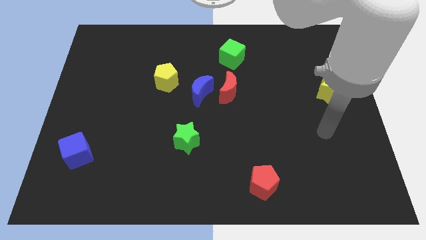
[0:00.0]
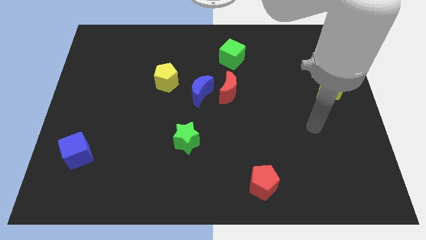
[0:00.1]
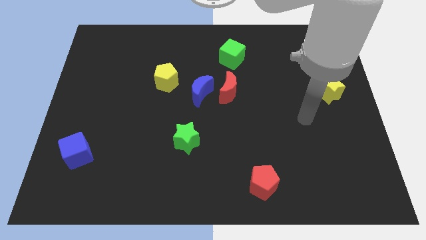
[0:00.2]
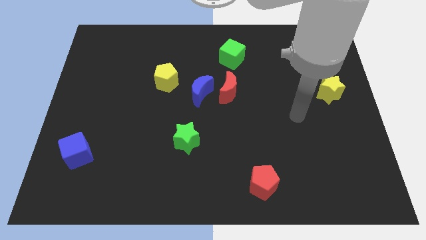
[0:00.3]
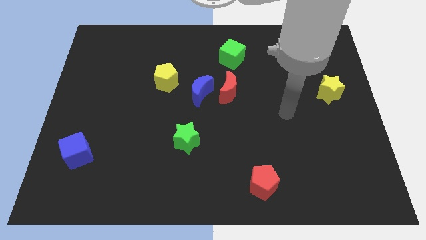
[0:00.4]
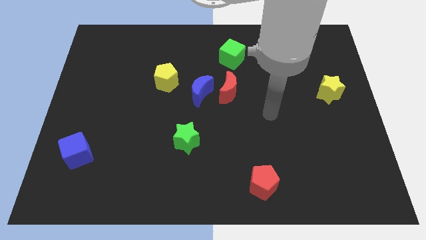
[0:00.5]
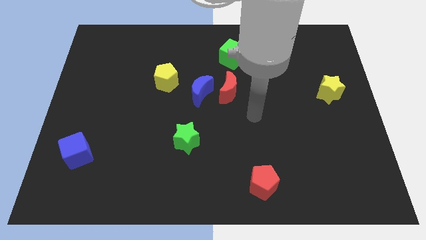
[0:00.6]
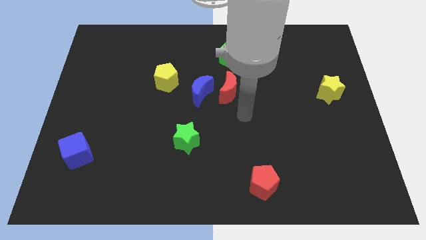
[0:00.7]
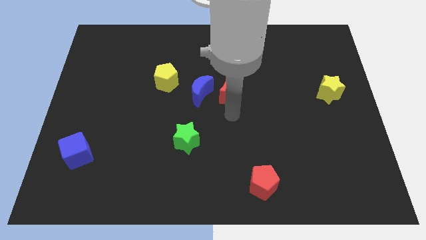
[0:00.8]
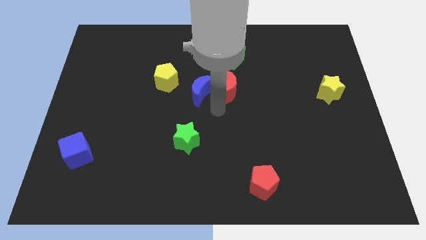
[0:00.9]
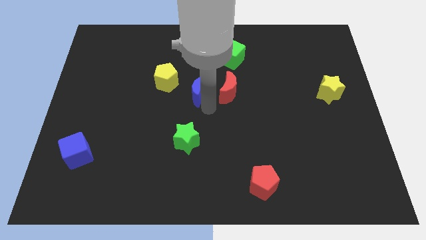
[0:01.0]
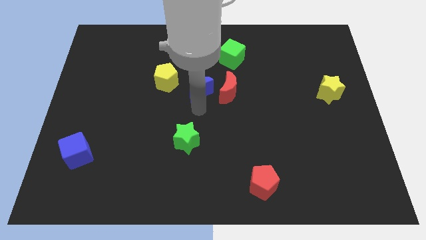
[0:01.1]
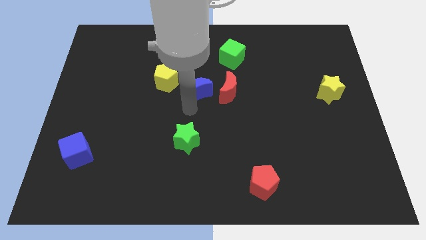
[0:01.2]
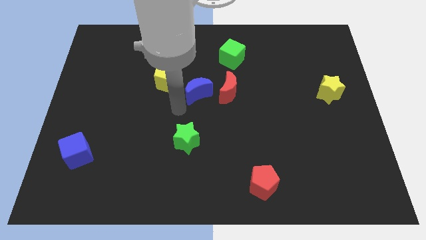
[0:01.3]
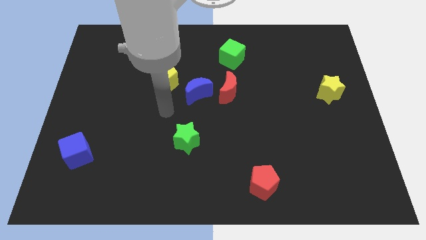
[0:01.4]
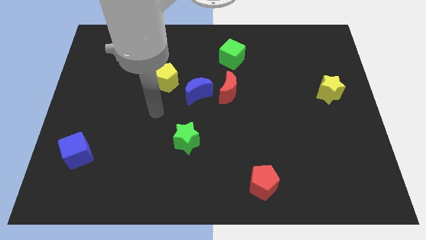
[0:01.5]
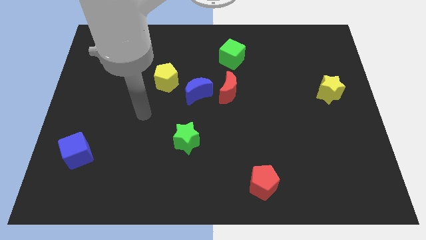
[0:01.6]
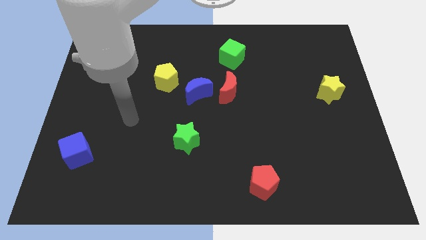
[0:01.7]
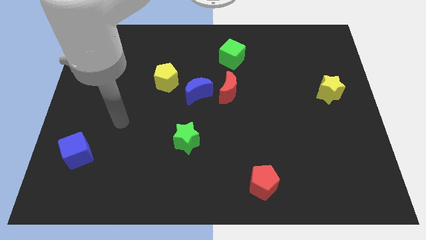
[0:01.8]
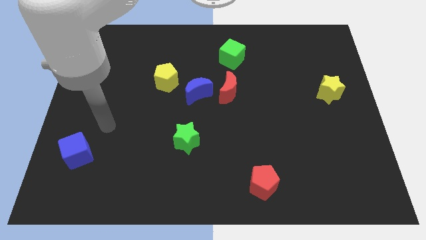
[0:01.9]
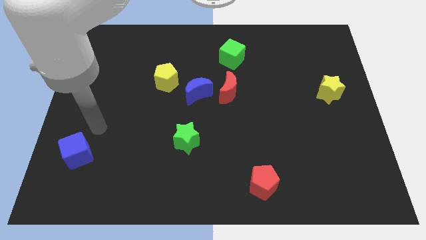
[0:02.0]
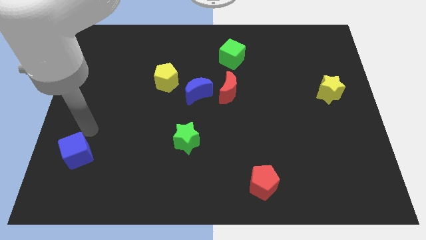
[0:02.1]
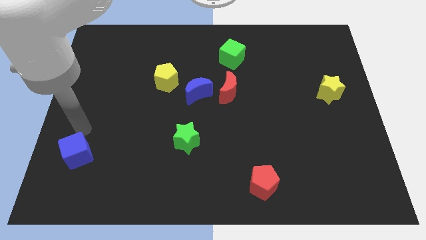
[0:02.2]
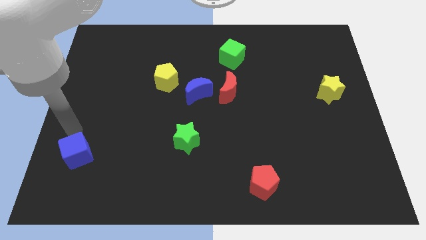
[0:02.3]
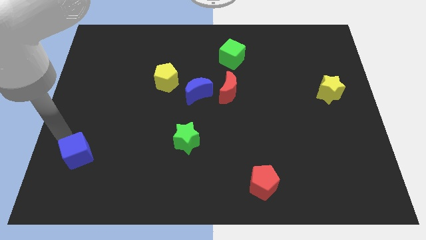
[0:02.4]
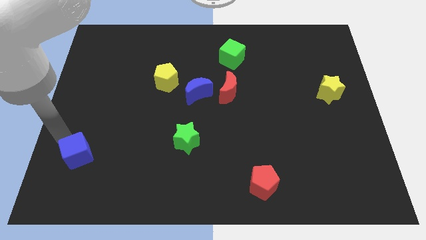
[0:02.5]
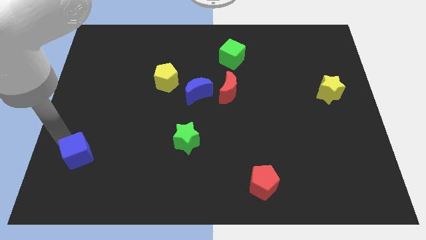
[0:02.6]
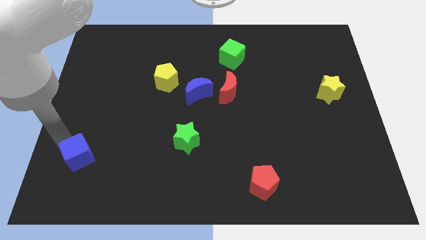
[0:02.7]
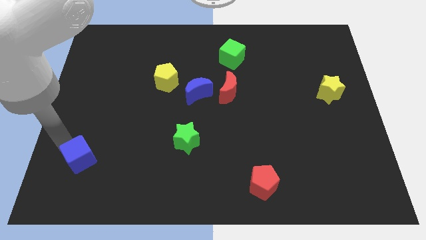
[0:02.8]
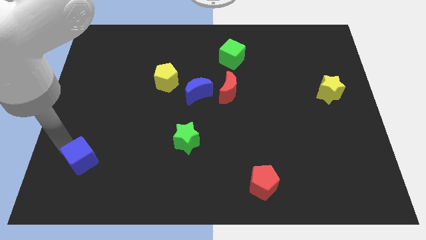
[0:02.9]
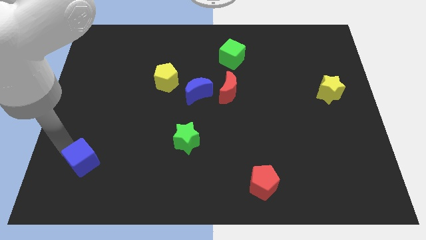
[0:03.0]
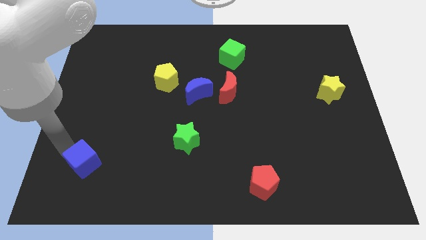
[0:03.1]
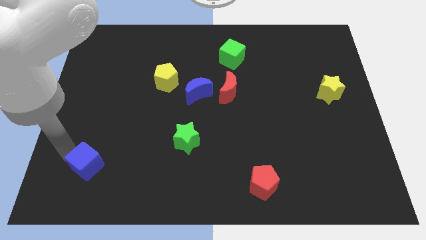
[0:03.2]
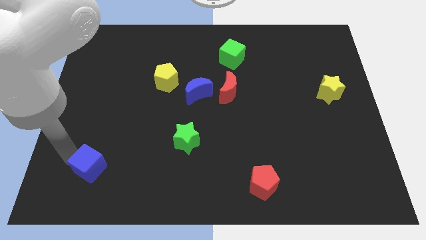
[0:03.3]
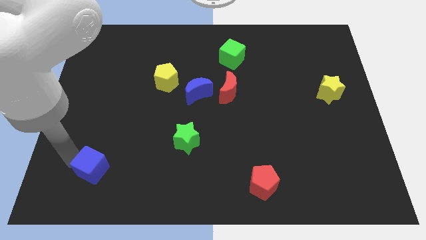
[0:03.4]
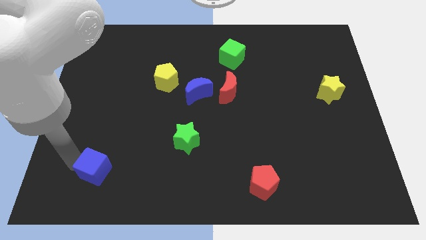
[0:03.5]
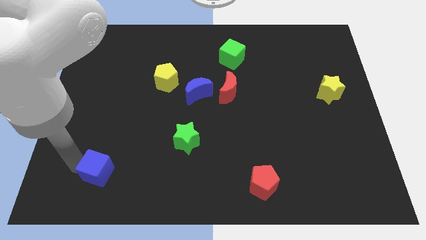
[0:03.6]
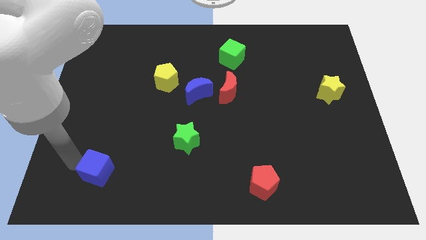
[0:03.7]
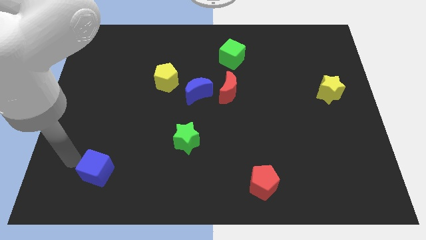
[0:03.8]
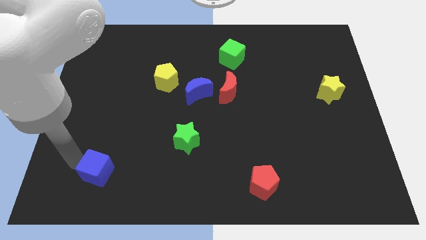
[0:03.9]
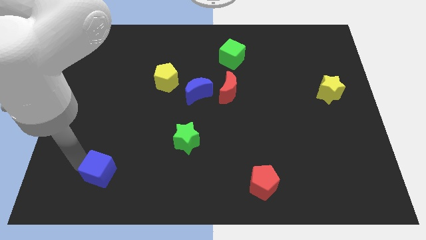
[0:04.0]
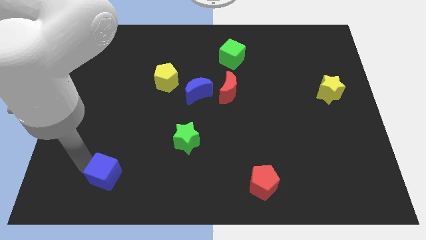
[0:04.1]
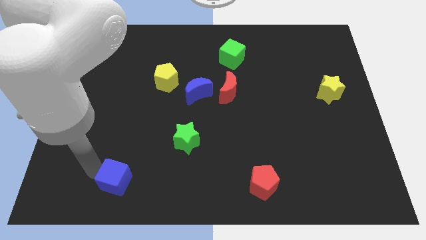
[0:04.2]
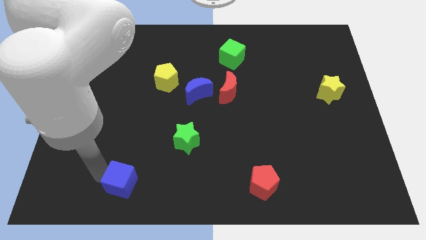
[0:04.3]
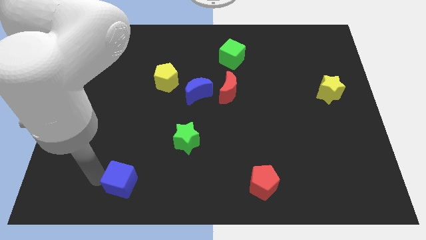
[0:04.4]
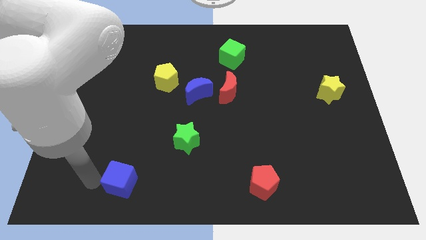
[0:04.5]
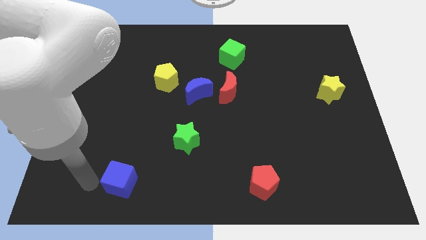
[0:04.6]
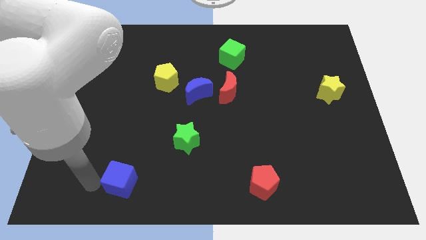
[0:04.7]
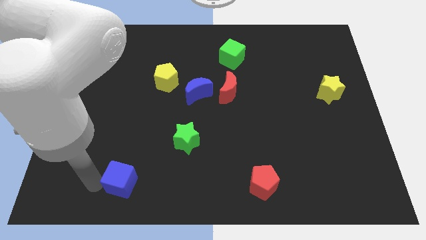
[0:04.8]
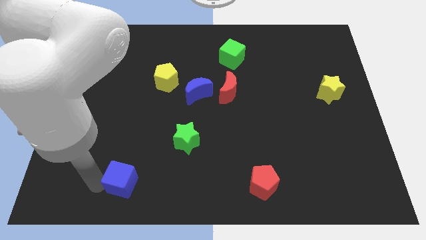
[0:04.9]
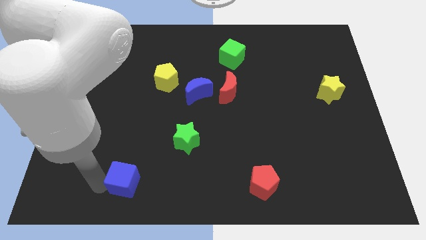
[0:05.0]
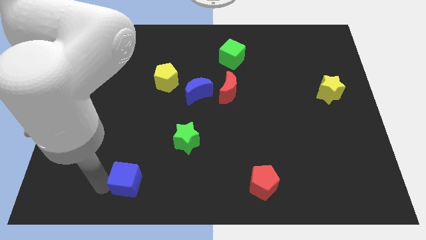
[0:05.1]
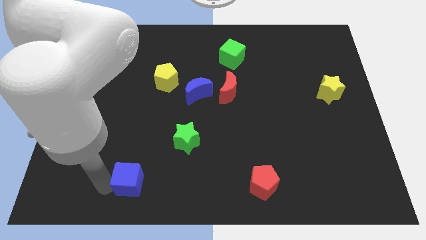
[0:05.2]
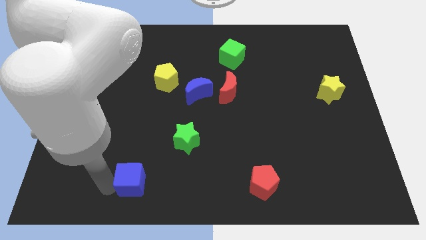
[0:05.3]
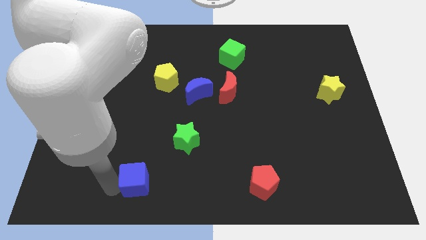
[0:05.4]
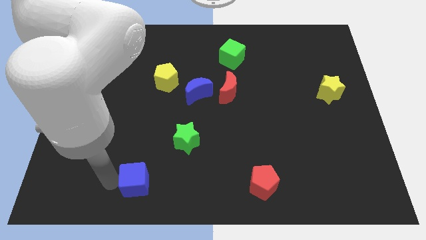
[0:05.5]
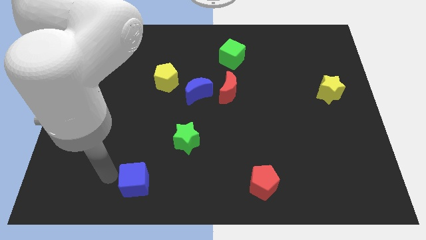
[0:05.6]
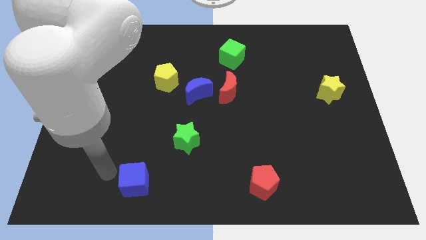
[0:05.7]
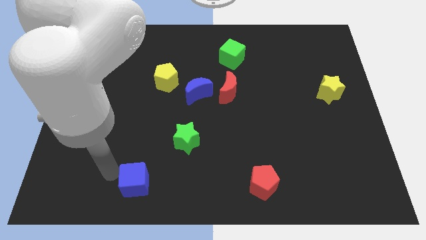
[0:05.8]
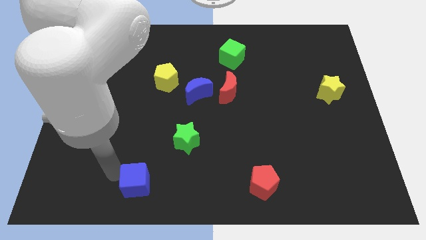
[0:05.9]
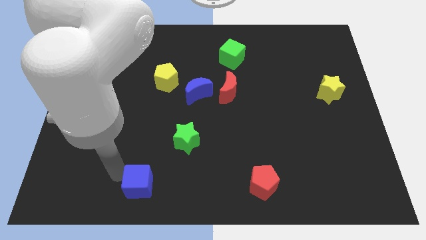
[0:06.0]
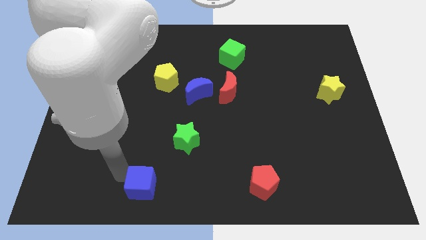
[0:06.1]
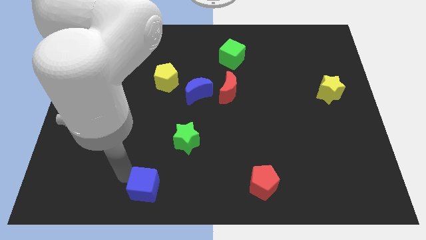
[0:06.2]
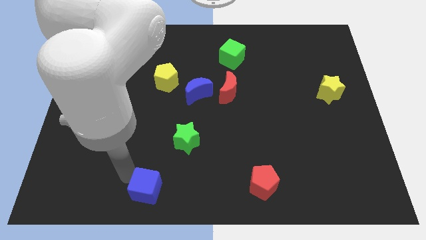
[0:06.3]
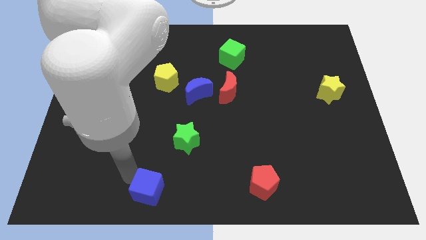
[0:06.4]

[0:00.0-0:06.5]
move the blue cube to the bottom
